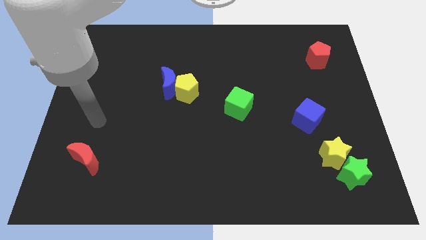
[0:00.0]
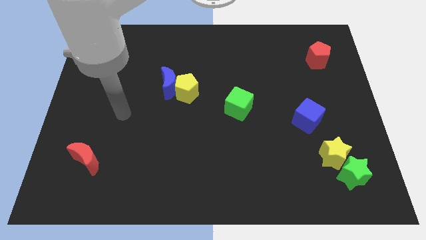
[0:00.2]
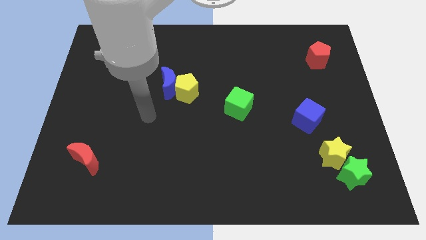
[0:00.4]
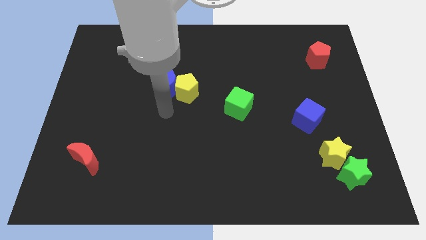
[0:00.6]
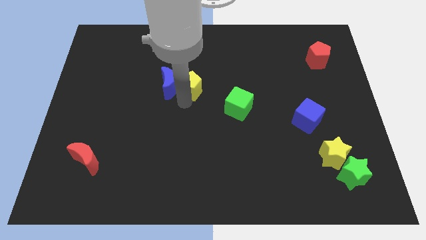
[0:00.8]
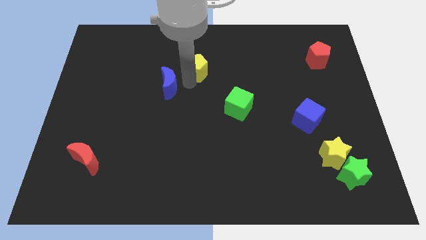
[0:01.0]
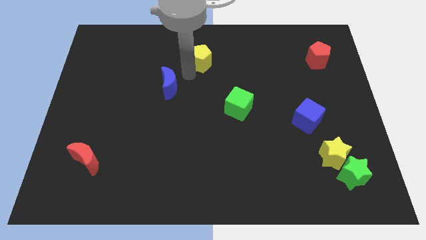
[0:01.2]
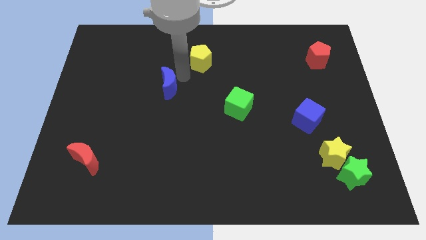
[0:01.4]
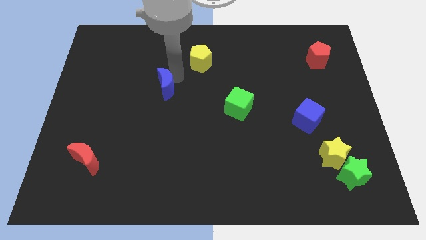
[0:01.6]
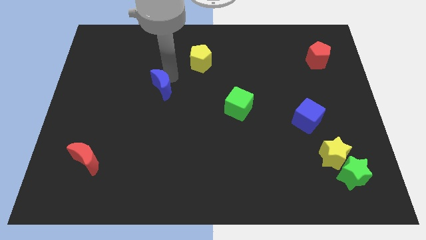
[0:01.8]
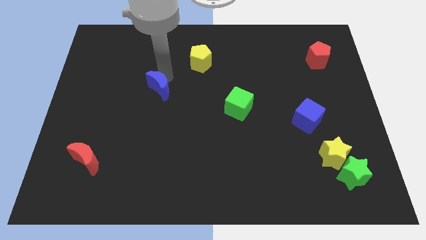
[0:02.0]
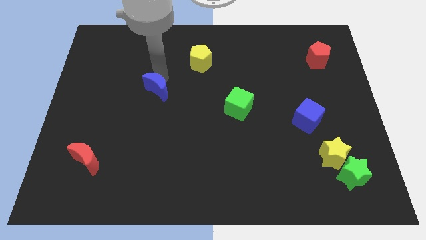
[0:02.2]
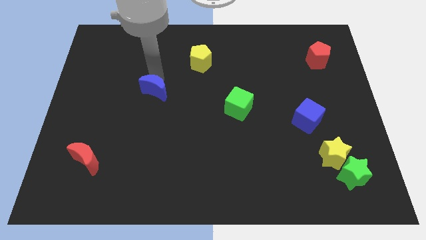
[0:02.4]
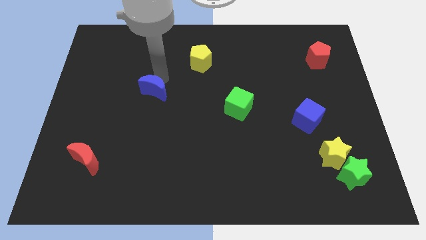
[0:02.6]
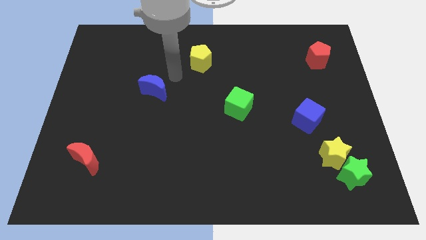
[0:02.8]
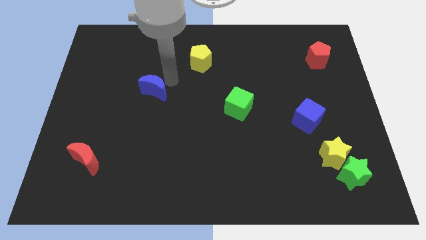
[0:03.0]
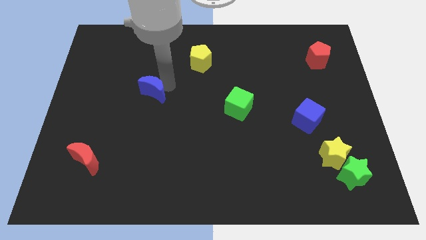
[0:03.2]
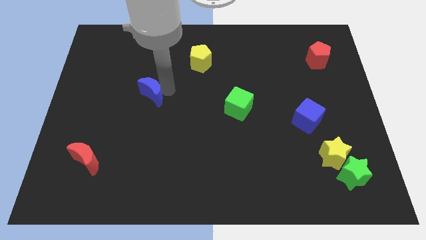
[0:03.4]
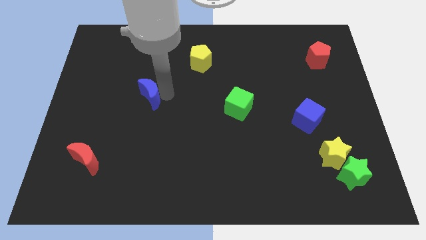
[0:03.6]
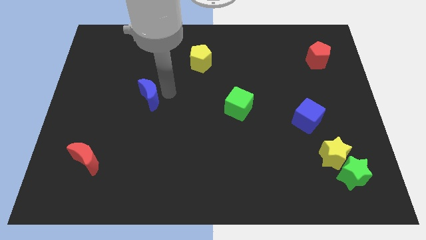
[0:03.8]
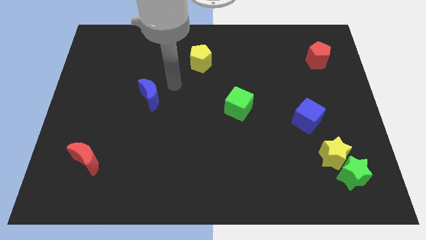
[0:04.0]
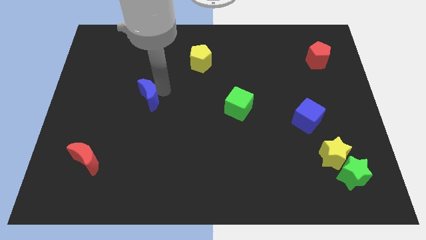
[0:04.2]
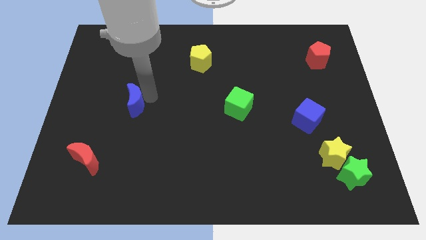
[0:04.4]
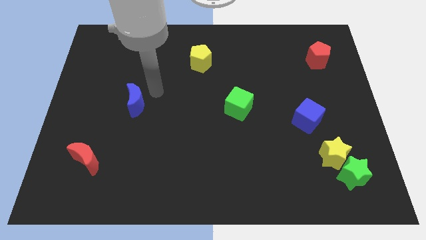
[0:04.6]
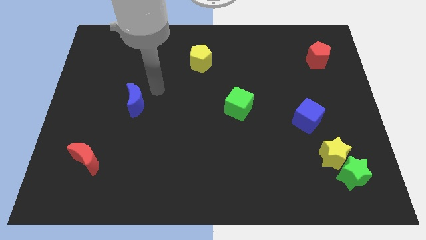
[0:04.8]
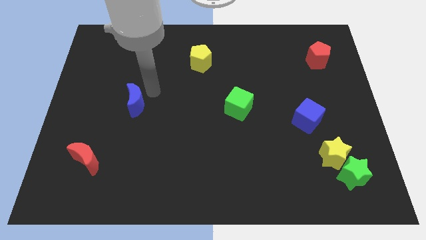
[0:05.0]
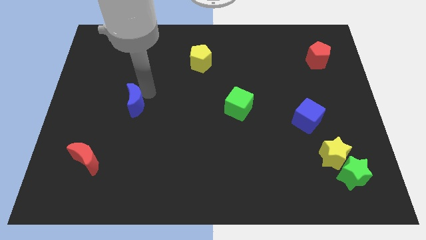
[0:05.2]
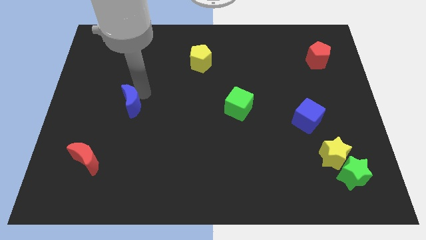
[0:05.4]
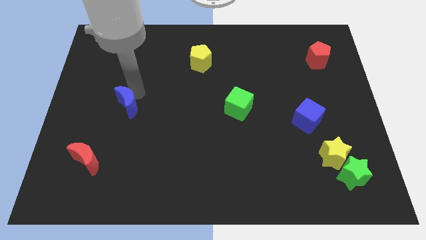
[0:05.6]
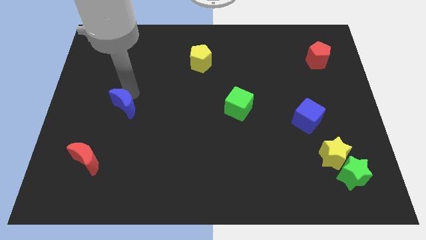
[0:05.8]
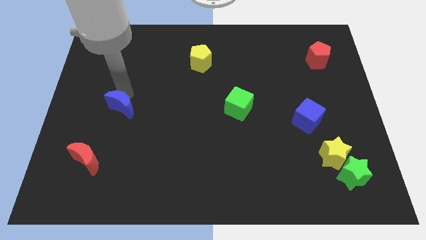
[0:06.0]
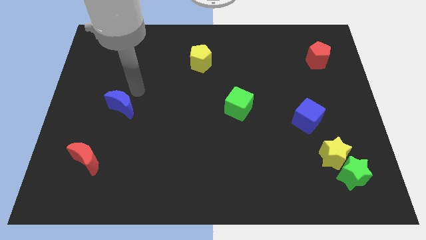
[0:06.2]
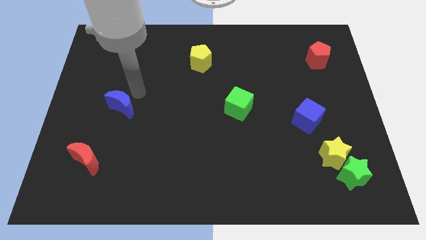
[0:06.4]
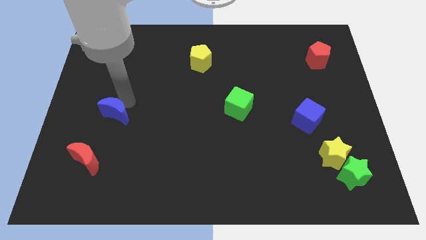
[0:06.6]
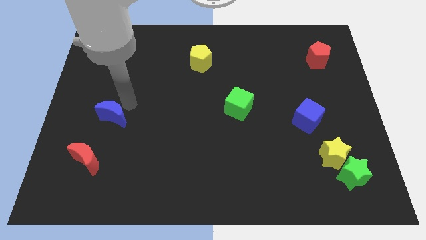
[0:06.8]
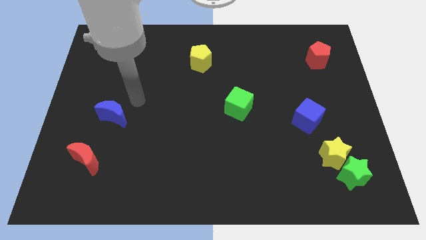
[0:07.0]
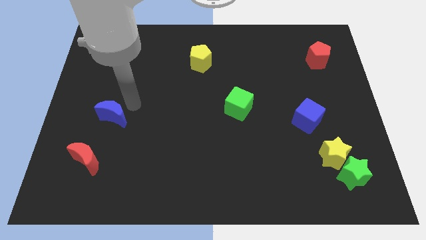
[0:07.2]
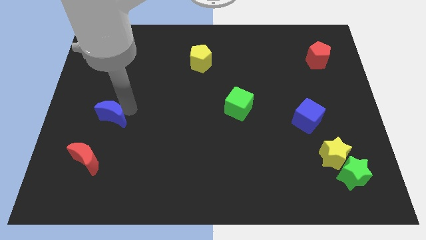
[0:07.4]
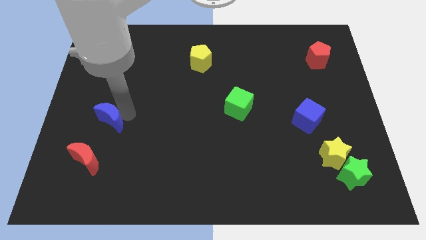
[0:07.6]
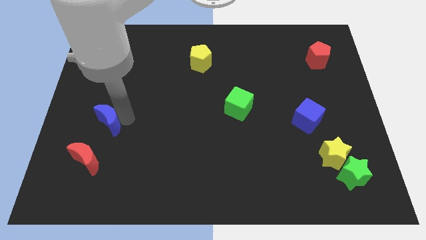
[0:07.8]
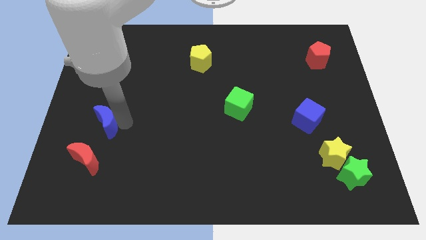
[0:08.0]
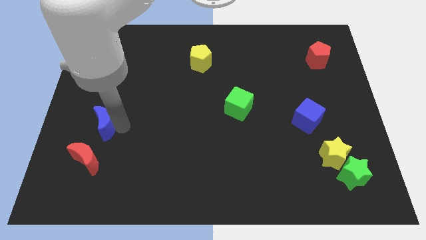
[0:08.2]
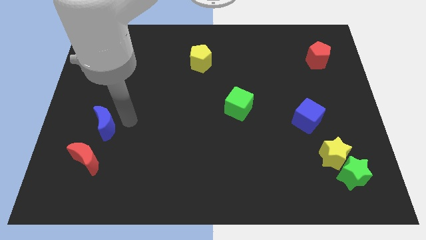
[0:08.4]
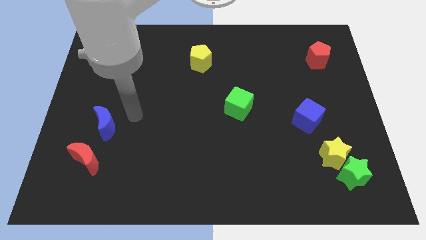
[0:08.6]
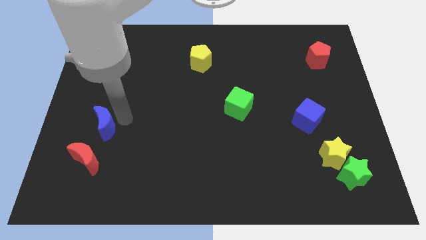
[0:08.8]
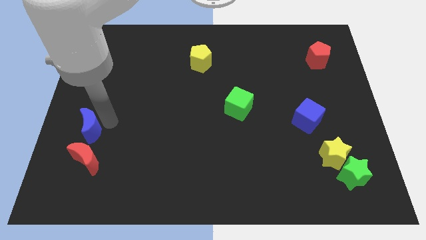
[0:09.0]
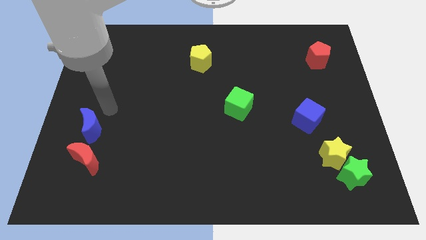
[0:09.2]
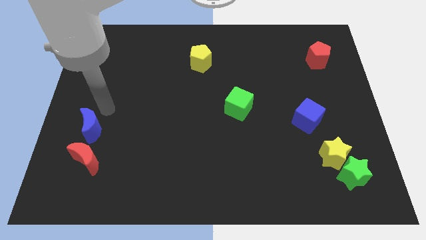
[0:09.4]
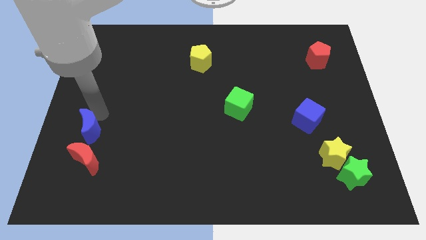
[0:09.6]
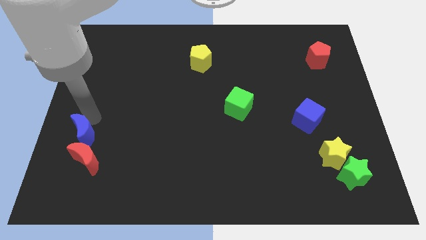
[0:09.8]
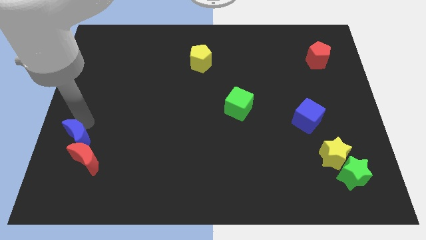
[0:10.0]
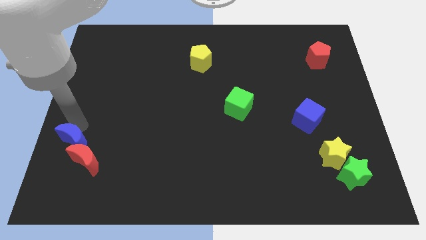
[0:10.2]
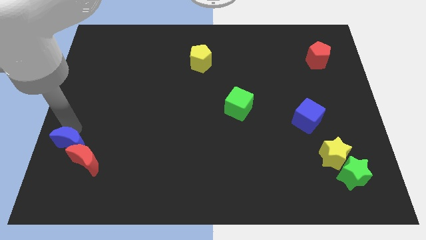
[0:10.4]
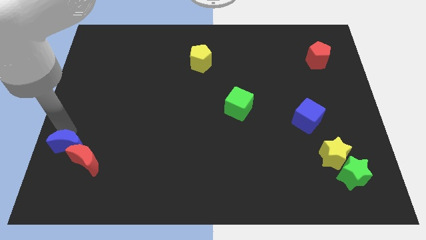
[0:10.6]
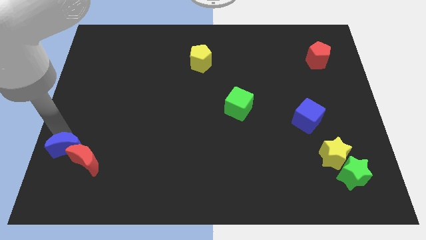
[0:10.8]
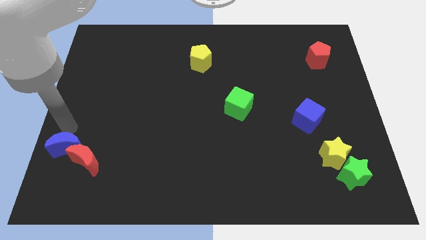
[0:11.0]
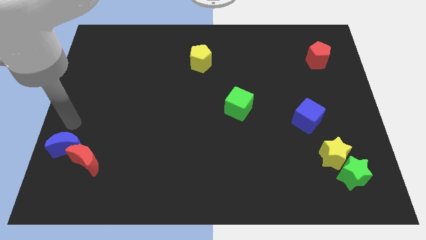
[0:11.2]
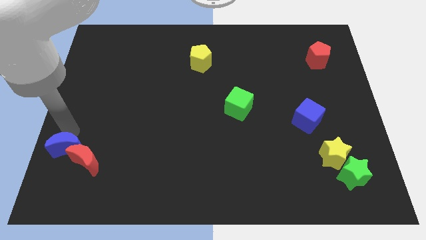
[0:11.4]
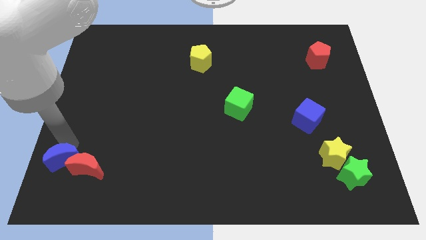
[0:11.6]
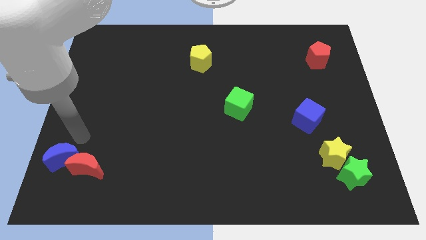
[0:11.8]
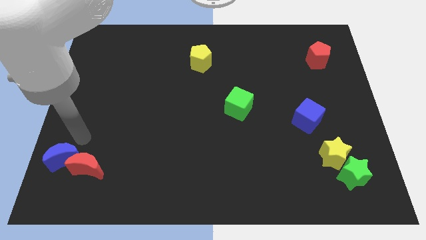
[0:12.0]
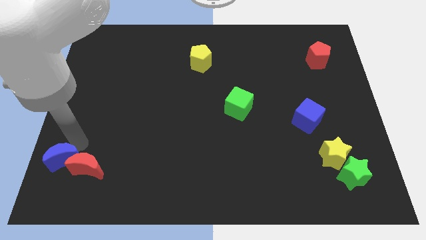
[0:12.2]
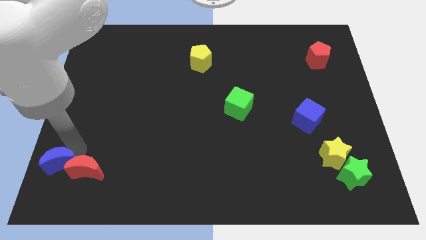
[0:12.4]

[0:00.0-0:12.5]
move the blue moon to the bottom left of the board

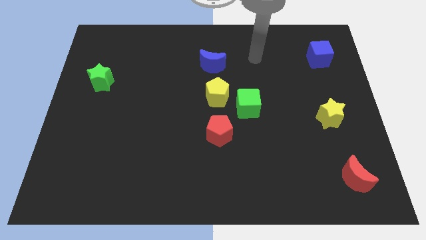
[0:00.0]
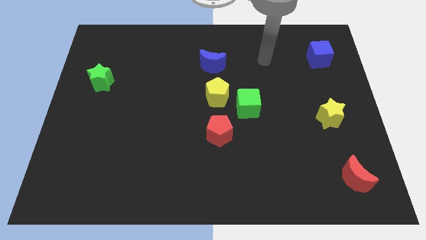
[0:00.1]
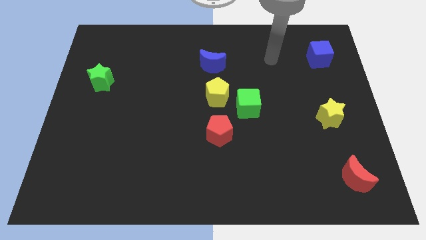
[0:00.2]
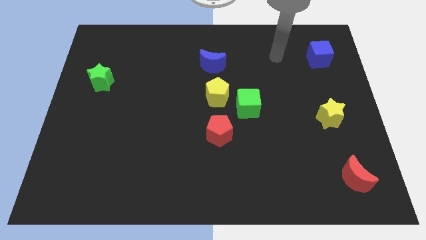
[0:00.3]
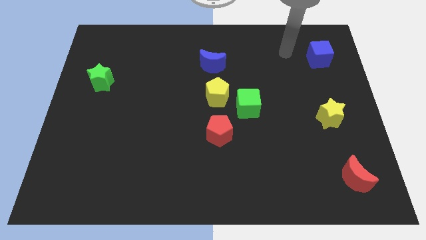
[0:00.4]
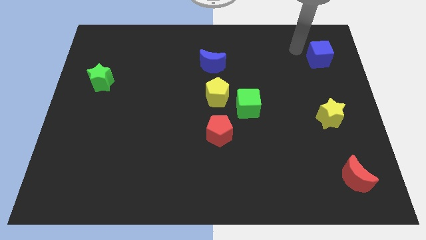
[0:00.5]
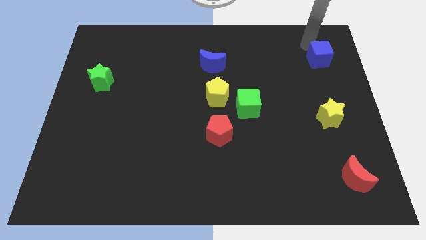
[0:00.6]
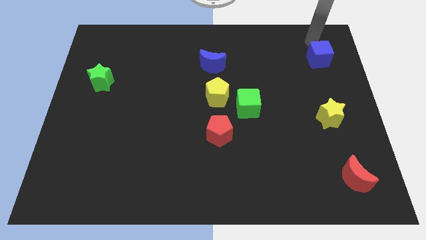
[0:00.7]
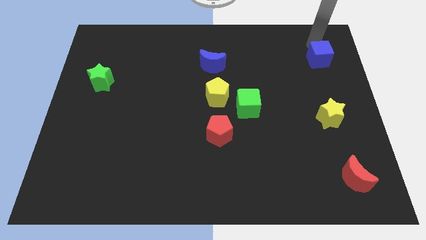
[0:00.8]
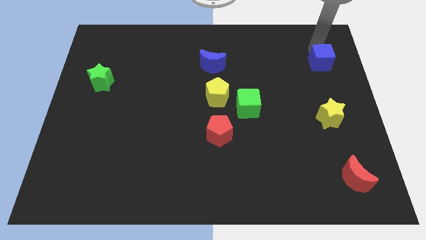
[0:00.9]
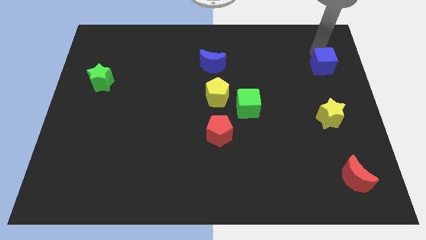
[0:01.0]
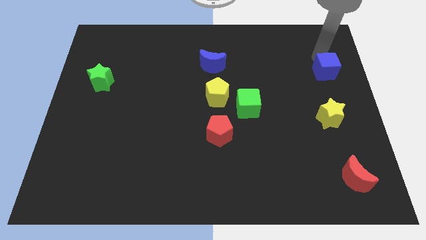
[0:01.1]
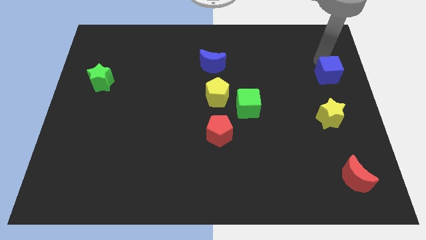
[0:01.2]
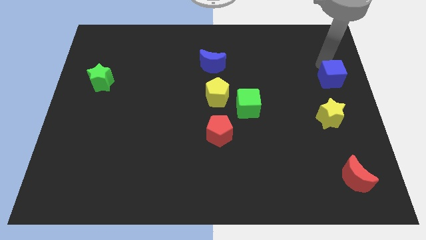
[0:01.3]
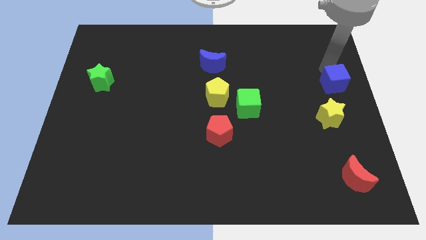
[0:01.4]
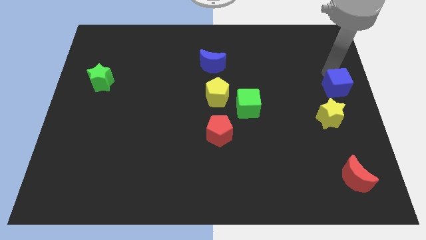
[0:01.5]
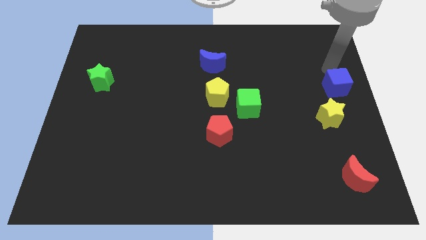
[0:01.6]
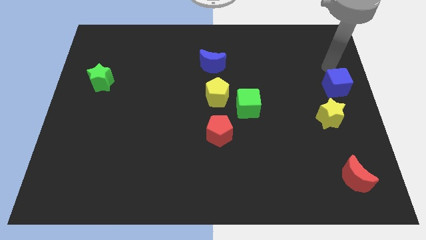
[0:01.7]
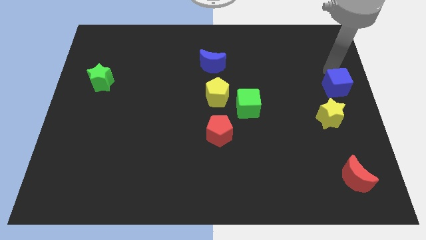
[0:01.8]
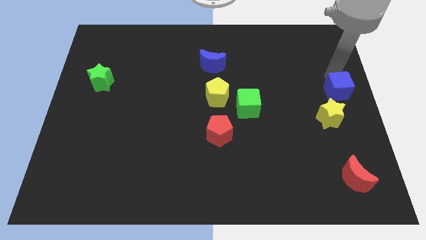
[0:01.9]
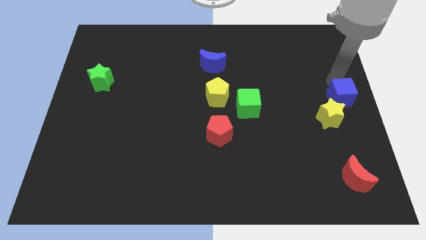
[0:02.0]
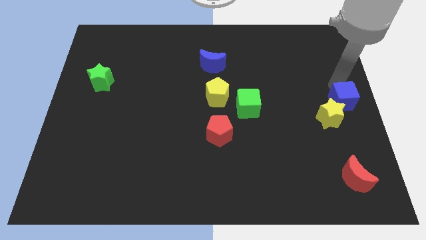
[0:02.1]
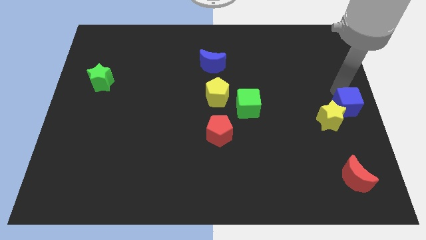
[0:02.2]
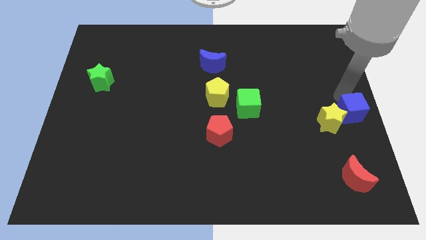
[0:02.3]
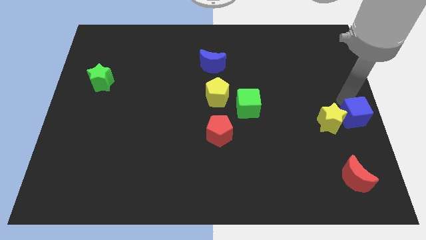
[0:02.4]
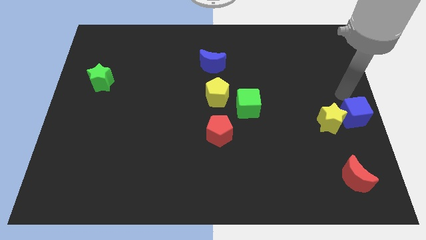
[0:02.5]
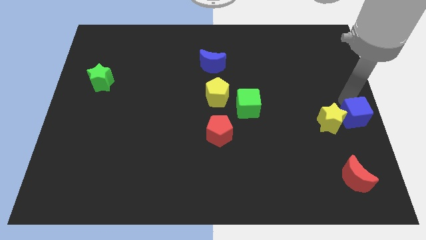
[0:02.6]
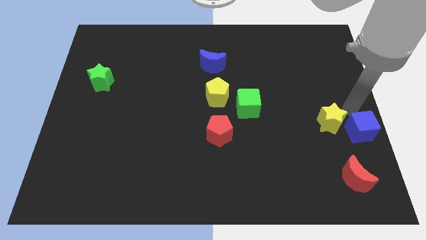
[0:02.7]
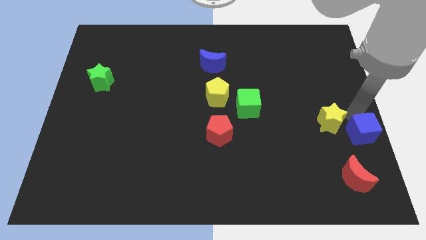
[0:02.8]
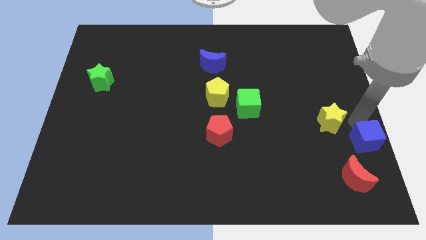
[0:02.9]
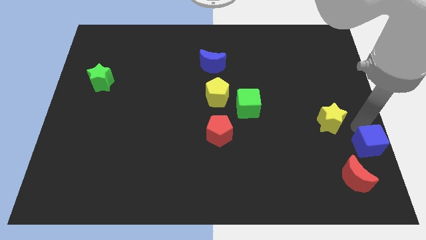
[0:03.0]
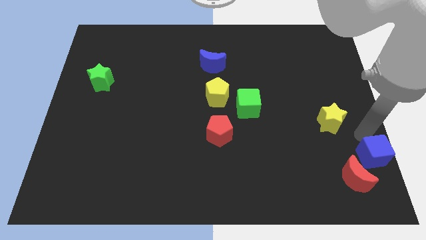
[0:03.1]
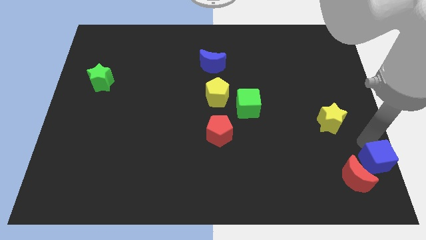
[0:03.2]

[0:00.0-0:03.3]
put the blue cube to the lower right corner
